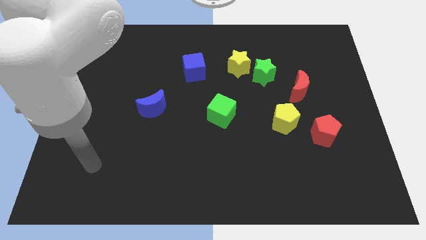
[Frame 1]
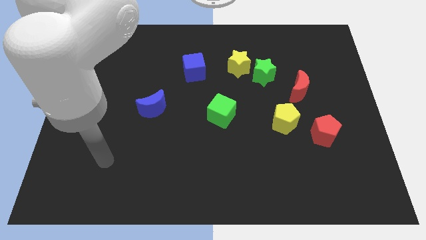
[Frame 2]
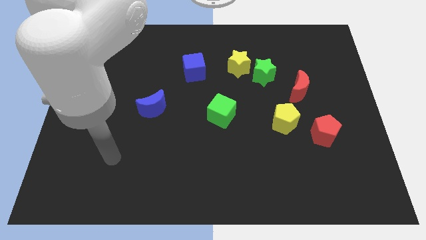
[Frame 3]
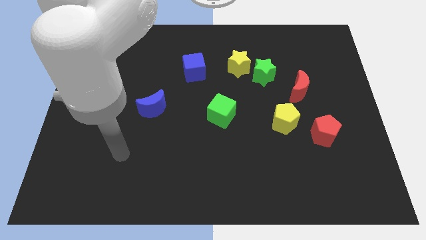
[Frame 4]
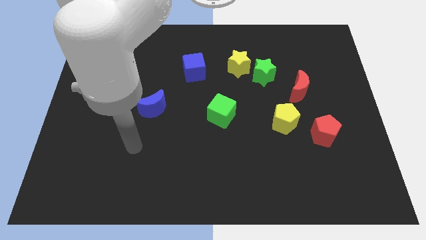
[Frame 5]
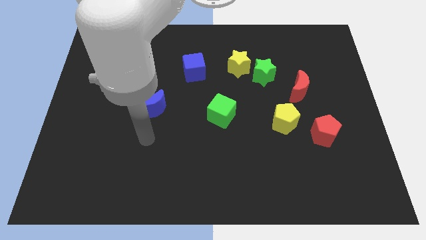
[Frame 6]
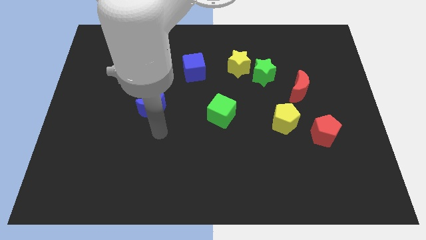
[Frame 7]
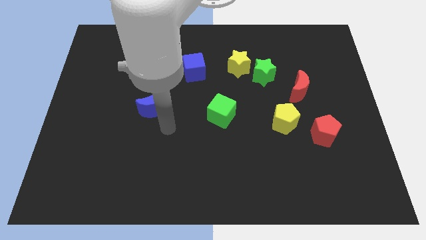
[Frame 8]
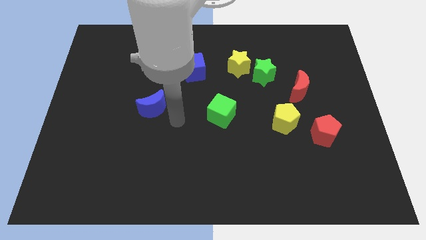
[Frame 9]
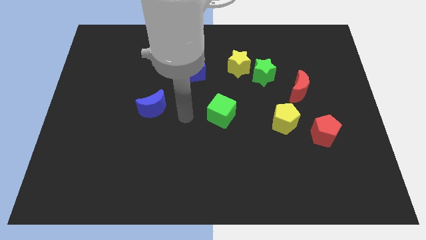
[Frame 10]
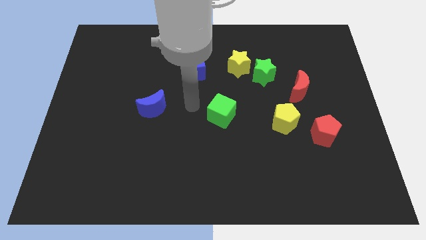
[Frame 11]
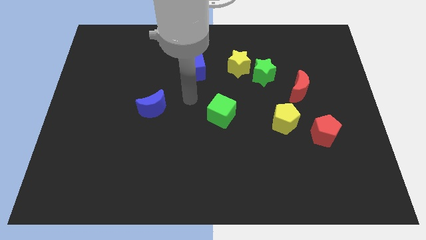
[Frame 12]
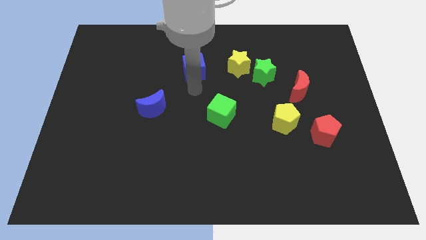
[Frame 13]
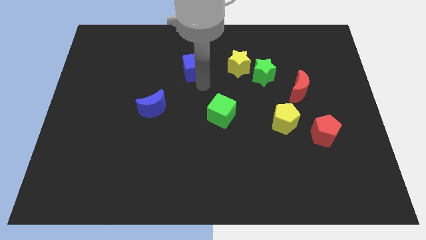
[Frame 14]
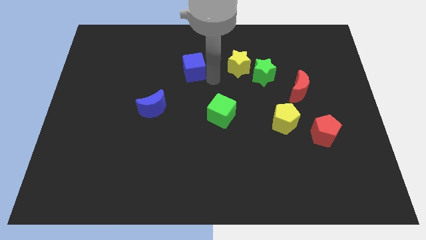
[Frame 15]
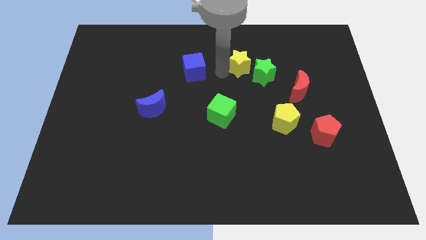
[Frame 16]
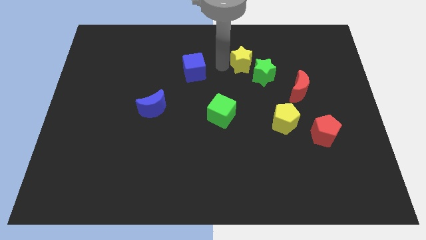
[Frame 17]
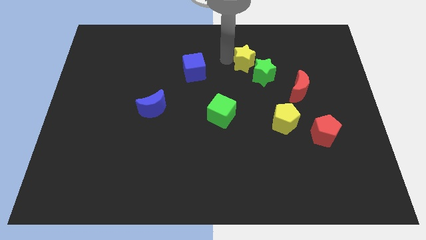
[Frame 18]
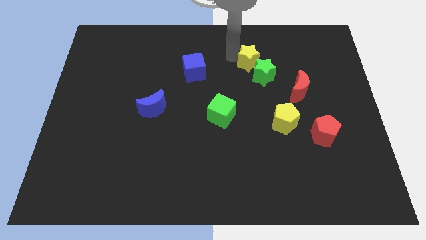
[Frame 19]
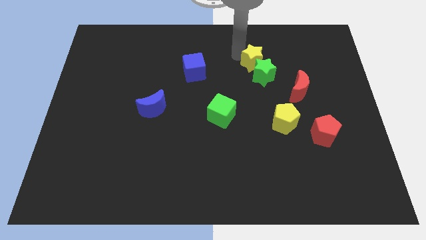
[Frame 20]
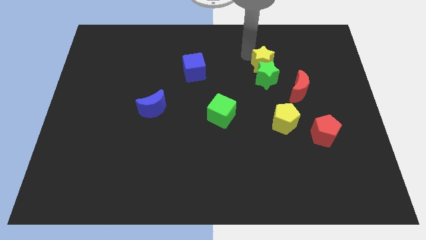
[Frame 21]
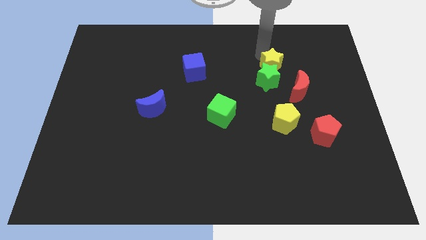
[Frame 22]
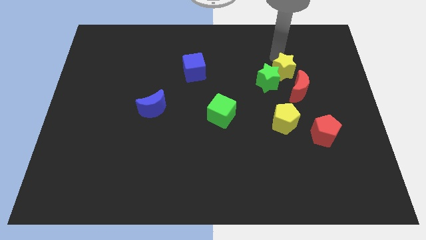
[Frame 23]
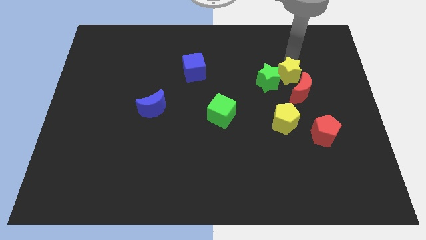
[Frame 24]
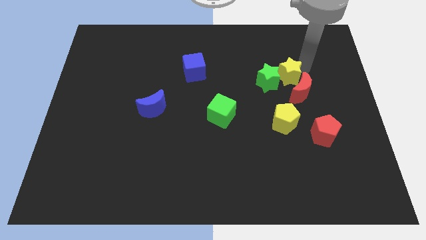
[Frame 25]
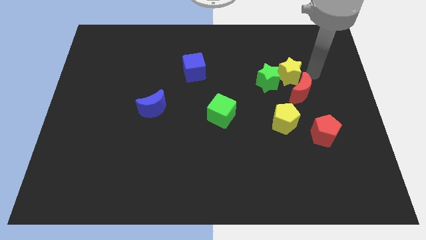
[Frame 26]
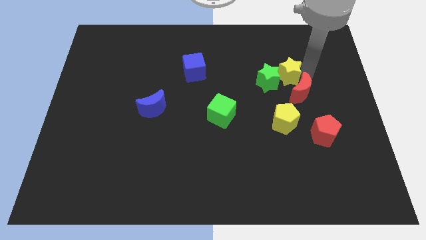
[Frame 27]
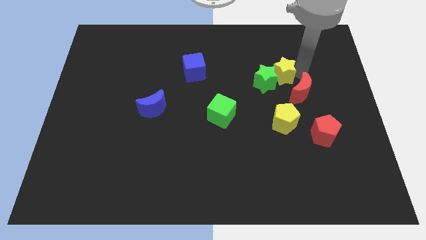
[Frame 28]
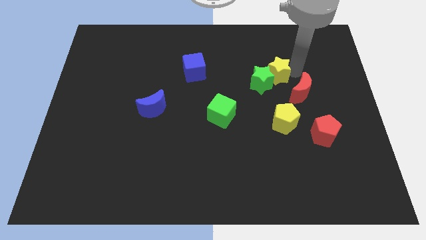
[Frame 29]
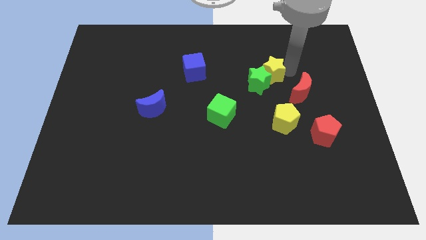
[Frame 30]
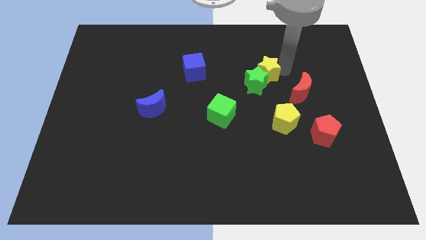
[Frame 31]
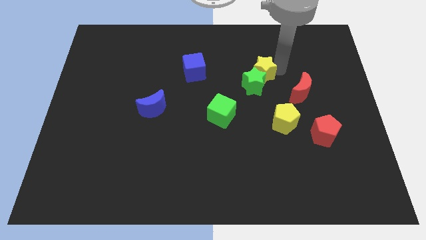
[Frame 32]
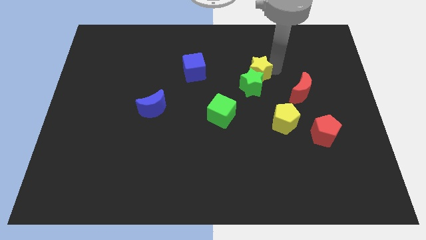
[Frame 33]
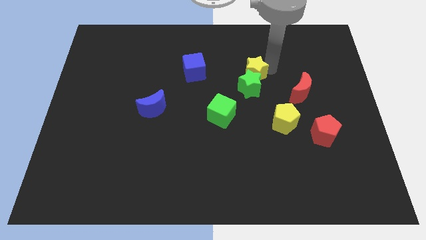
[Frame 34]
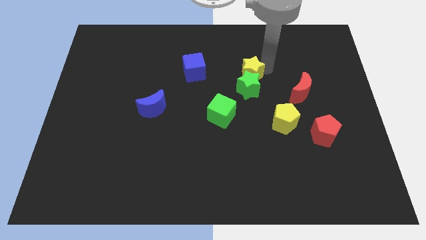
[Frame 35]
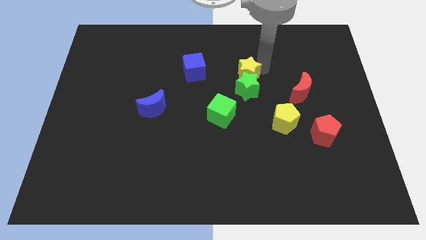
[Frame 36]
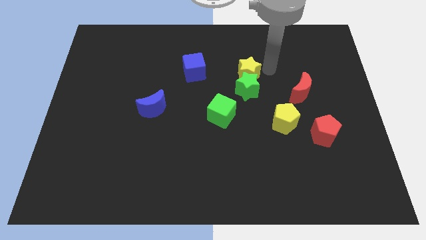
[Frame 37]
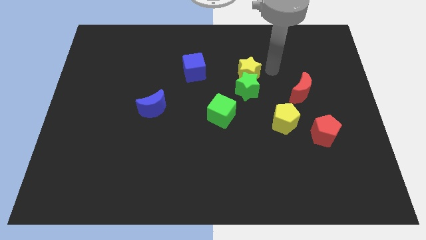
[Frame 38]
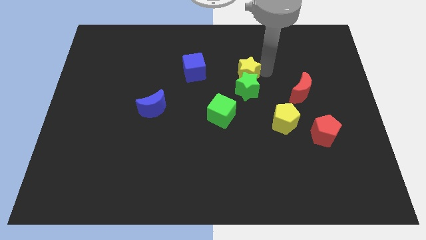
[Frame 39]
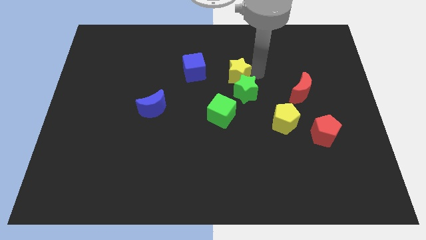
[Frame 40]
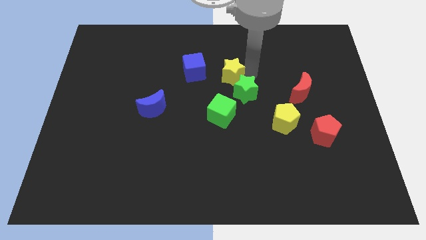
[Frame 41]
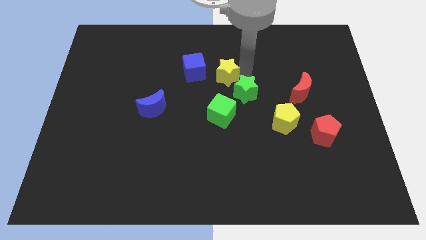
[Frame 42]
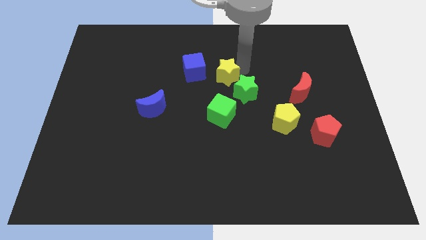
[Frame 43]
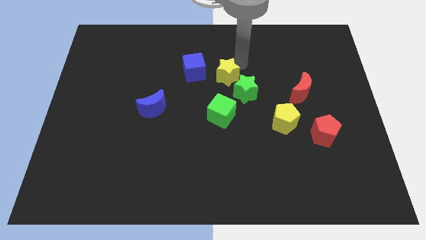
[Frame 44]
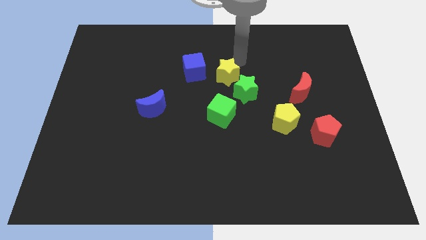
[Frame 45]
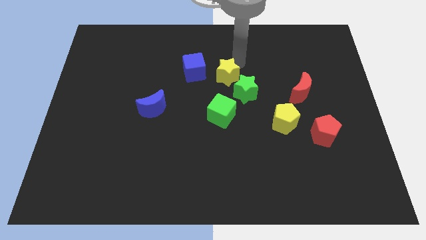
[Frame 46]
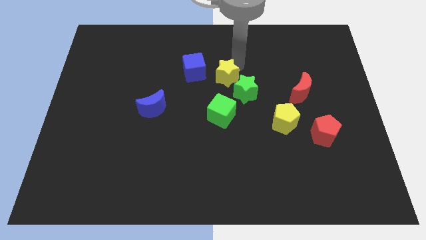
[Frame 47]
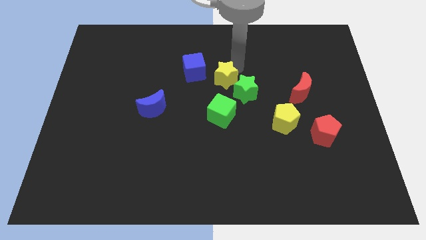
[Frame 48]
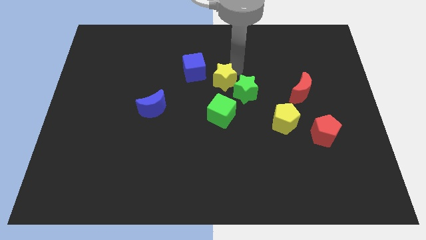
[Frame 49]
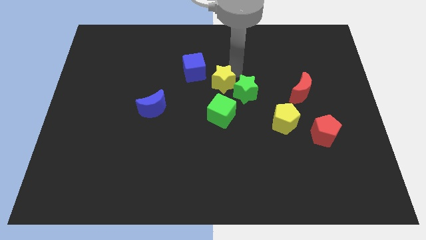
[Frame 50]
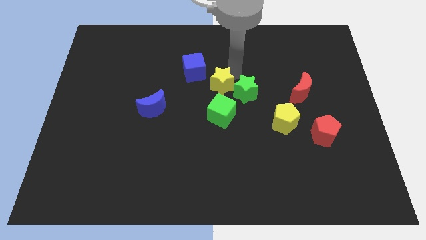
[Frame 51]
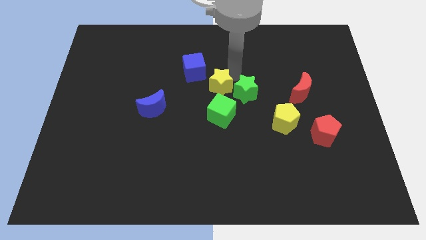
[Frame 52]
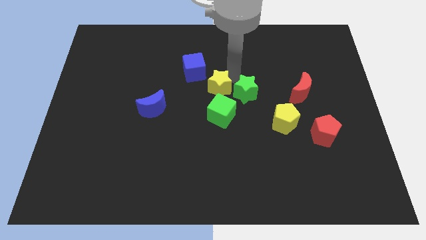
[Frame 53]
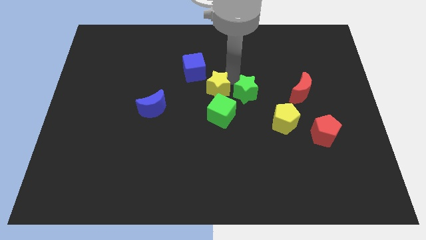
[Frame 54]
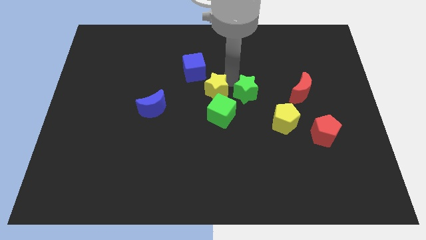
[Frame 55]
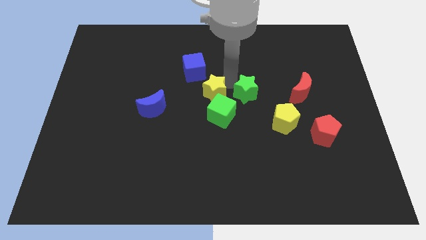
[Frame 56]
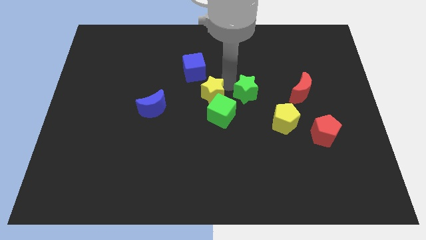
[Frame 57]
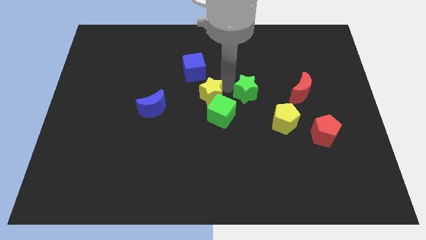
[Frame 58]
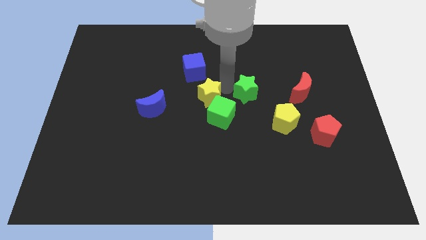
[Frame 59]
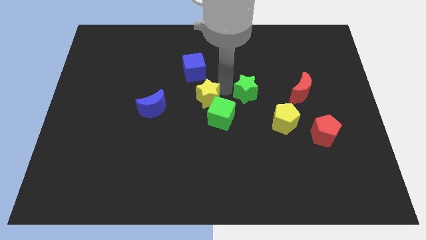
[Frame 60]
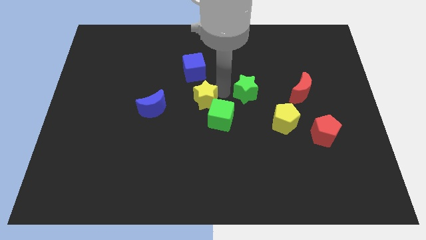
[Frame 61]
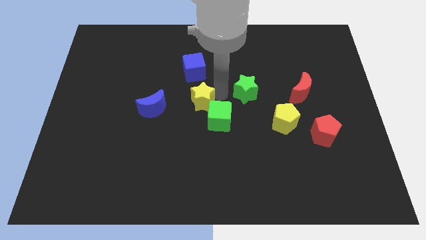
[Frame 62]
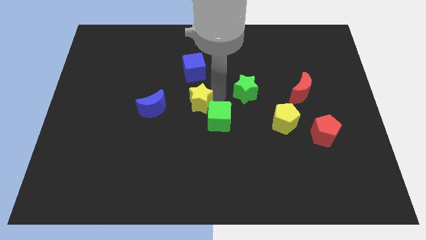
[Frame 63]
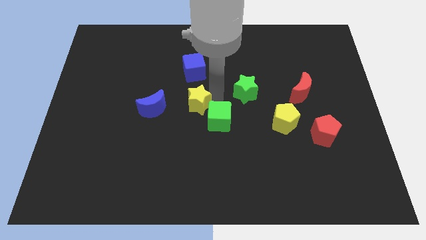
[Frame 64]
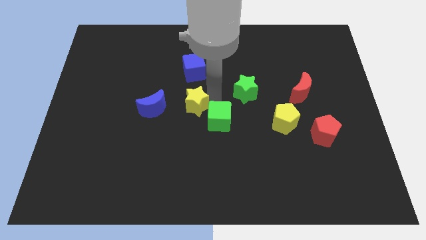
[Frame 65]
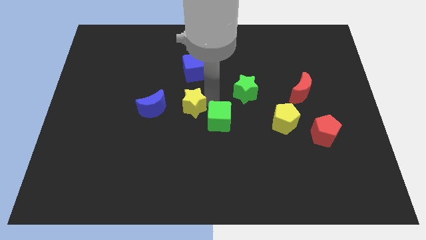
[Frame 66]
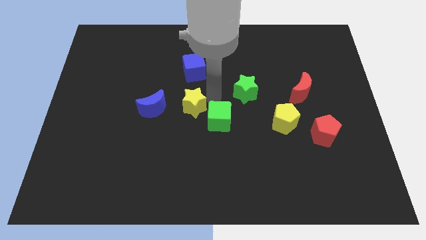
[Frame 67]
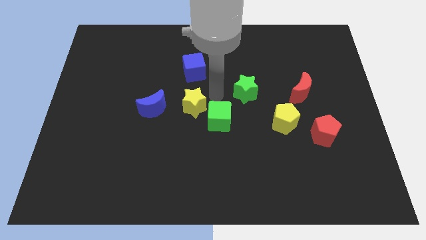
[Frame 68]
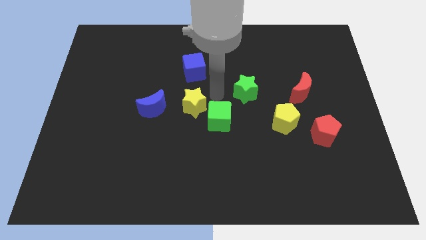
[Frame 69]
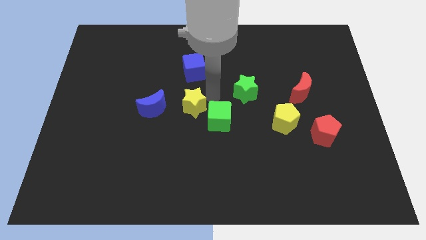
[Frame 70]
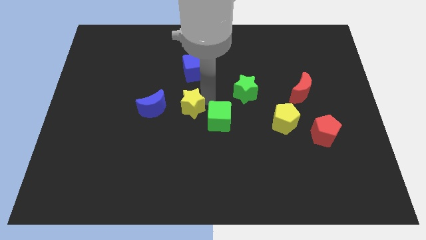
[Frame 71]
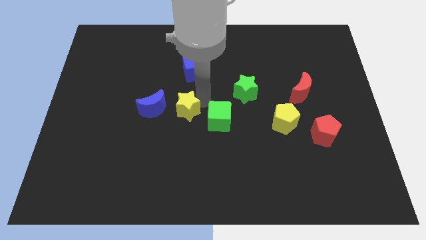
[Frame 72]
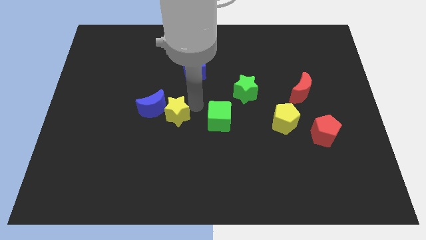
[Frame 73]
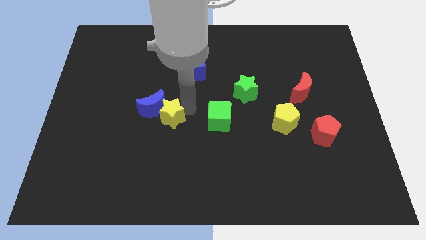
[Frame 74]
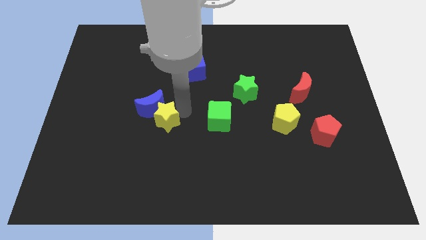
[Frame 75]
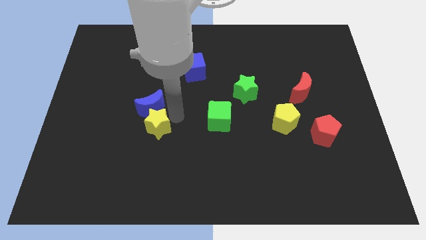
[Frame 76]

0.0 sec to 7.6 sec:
move the yellow star diagonally down and to the left of the blue moon

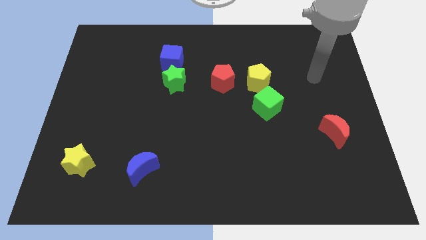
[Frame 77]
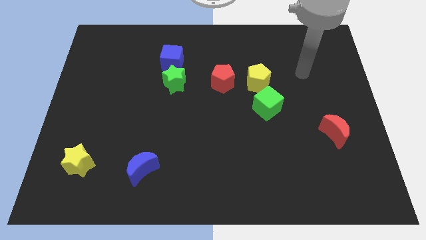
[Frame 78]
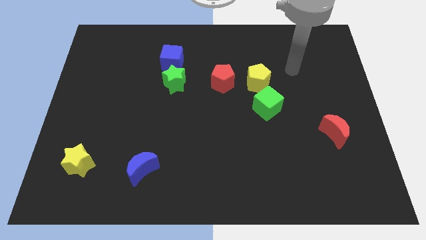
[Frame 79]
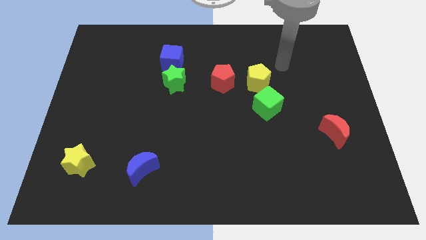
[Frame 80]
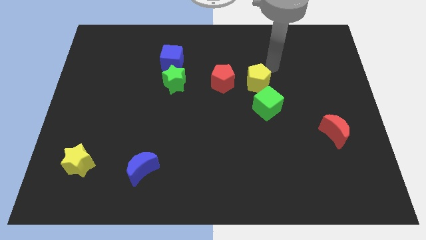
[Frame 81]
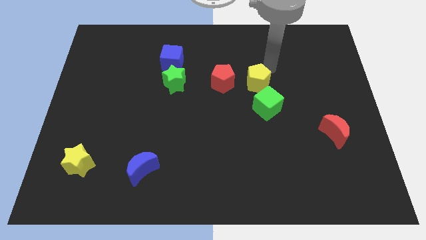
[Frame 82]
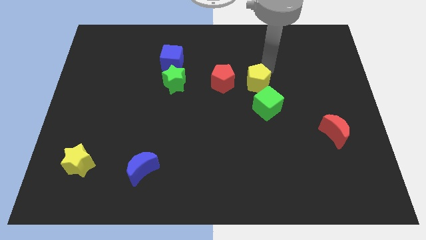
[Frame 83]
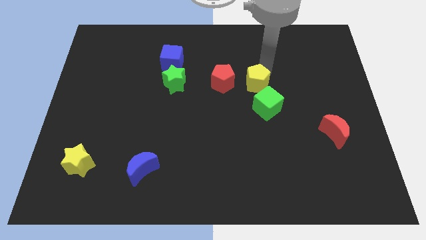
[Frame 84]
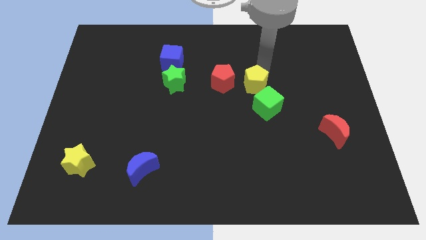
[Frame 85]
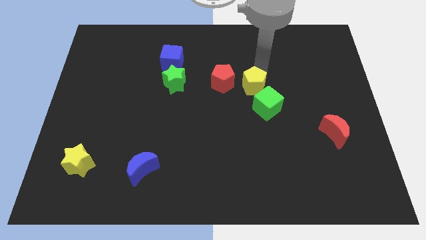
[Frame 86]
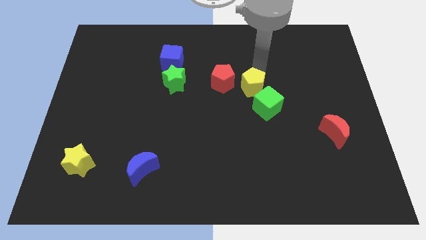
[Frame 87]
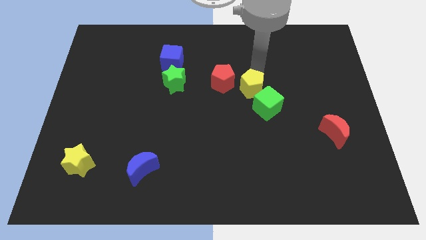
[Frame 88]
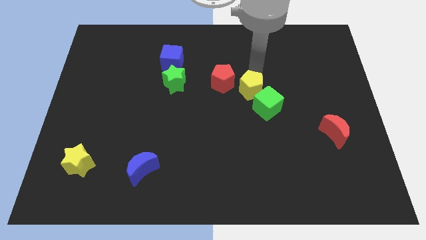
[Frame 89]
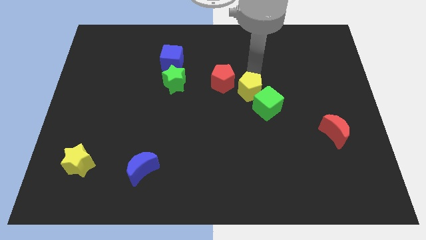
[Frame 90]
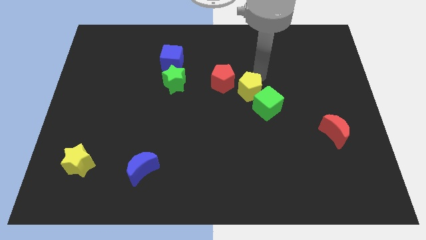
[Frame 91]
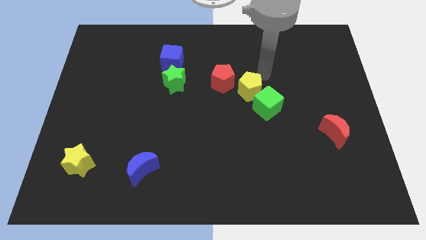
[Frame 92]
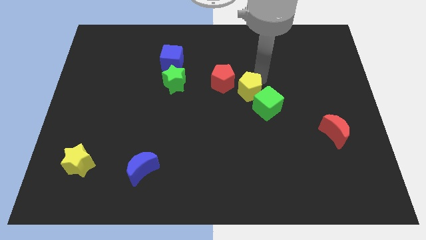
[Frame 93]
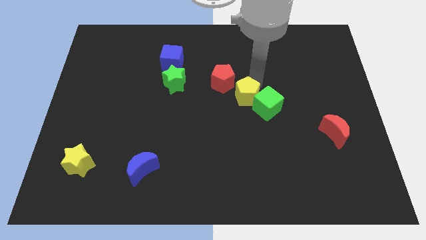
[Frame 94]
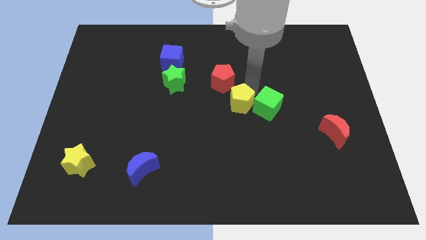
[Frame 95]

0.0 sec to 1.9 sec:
push the yellow pentagon to the bottom of the red pentagon
